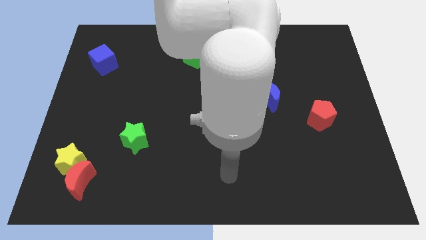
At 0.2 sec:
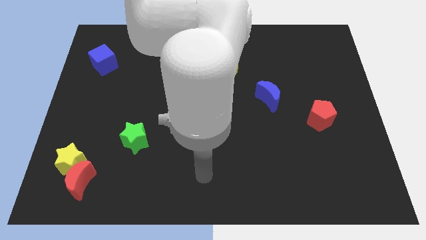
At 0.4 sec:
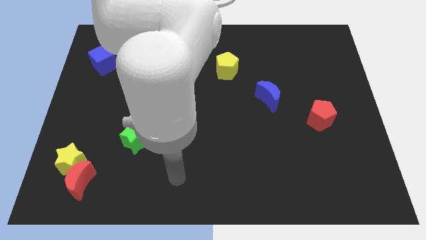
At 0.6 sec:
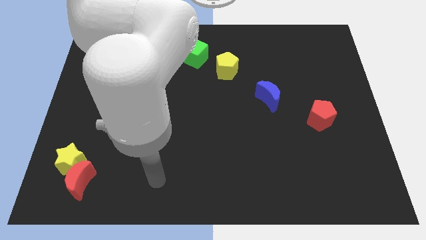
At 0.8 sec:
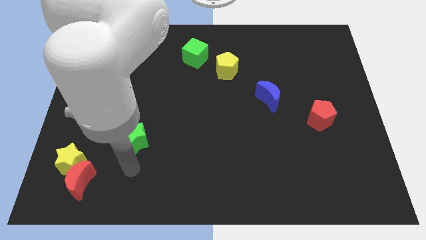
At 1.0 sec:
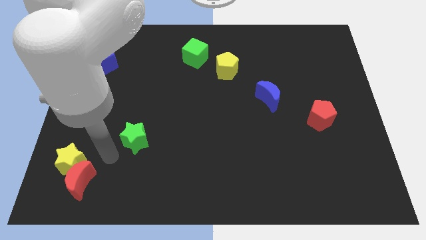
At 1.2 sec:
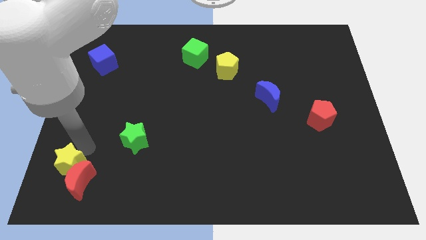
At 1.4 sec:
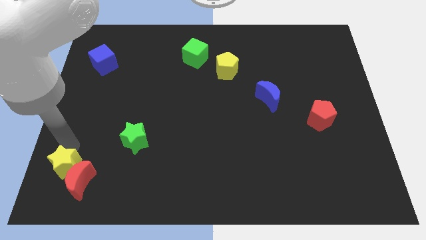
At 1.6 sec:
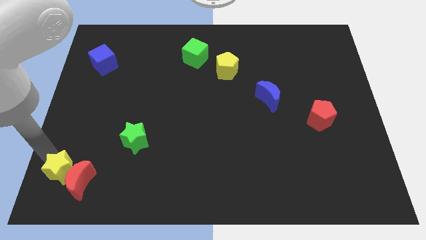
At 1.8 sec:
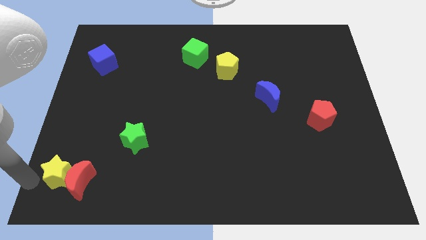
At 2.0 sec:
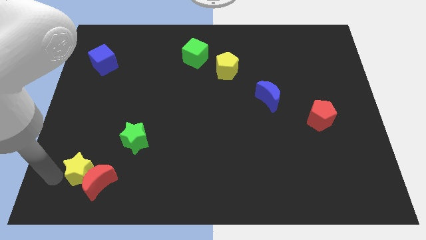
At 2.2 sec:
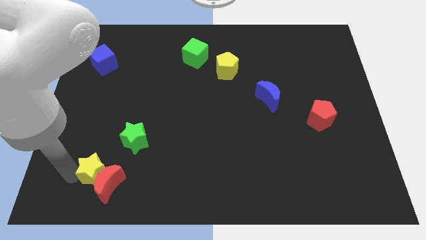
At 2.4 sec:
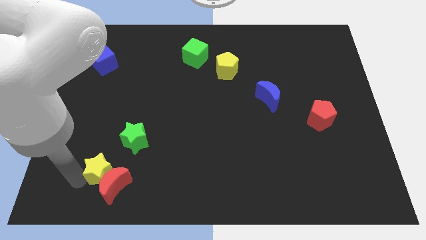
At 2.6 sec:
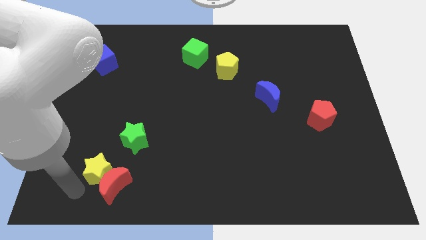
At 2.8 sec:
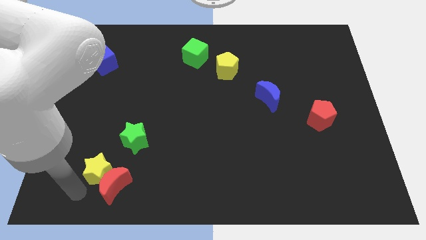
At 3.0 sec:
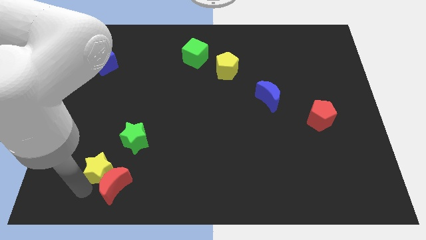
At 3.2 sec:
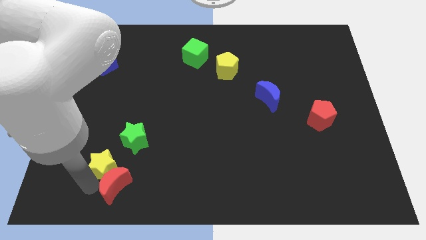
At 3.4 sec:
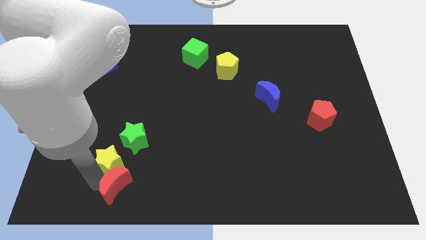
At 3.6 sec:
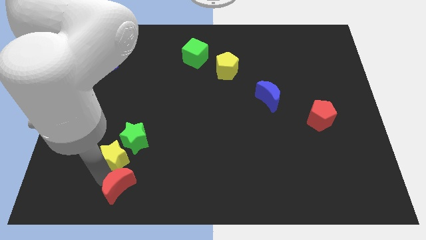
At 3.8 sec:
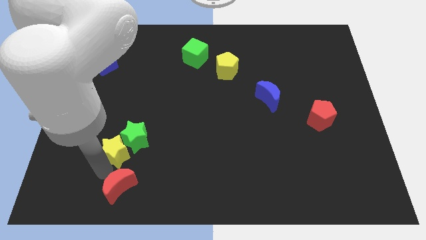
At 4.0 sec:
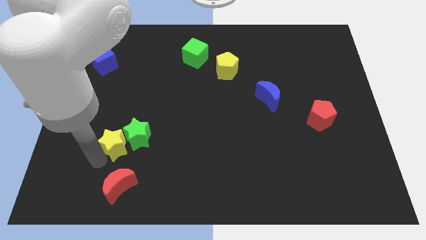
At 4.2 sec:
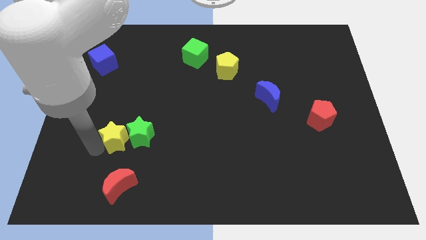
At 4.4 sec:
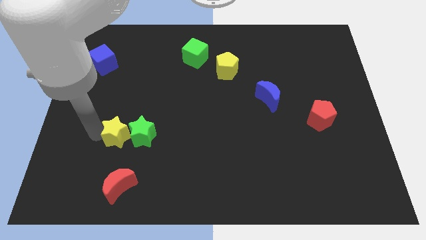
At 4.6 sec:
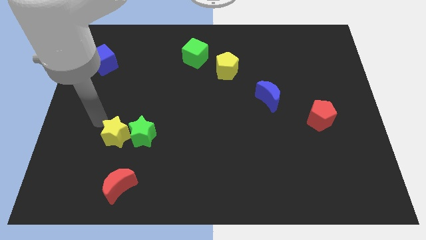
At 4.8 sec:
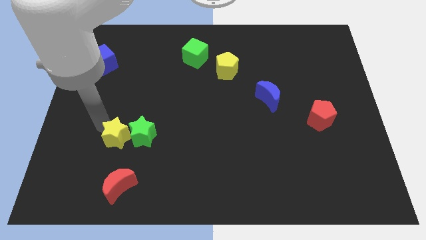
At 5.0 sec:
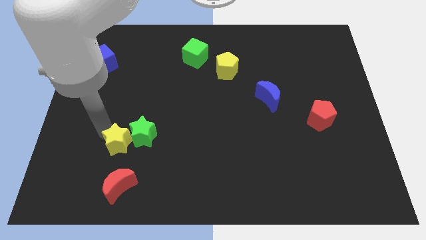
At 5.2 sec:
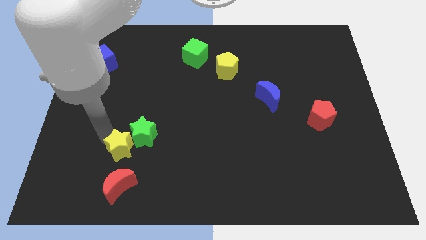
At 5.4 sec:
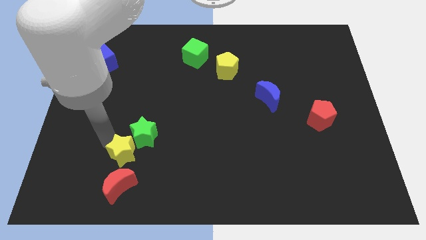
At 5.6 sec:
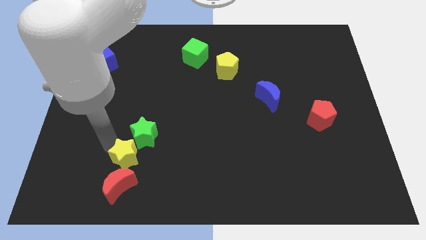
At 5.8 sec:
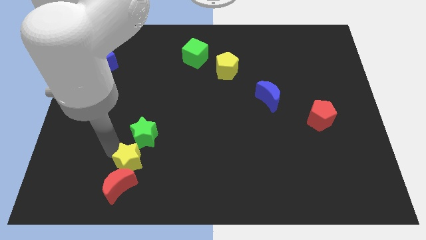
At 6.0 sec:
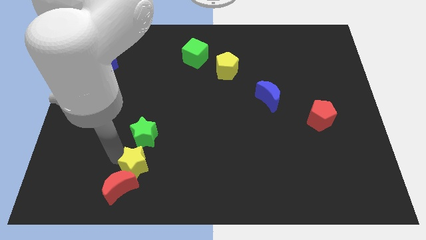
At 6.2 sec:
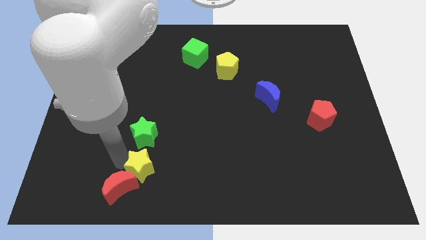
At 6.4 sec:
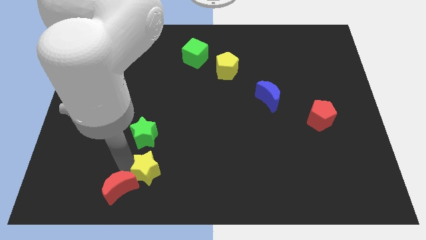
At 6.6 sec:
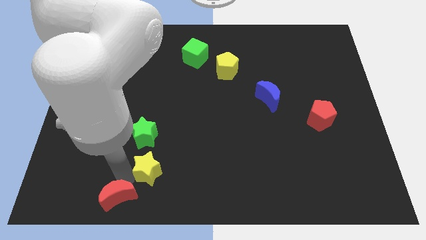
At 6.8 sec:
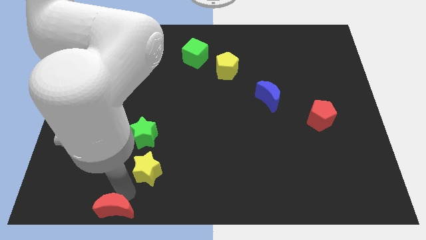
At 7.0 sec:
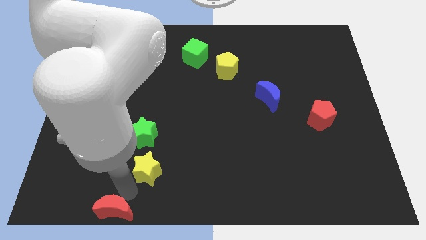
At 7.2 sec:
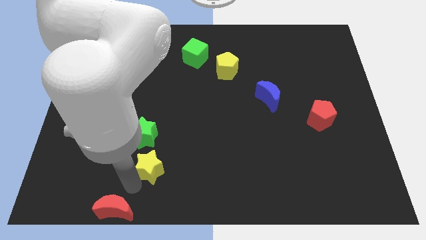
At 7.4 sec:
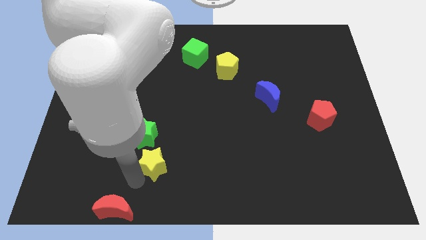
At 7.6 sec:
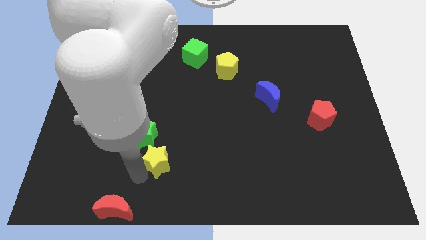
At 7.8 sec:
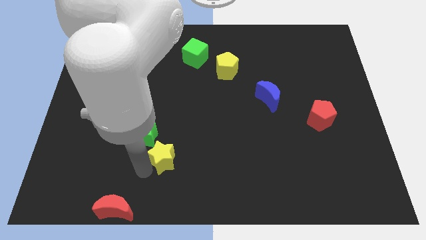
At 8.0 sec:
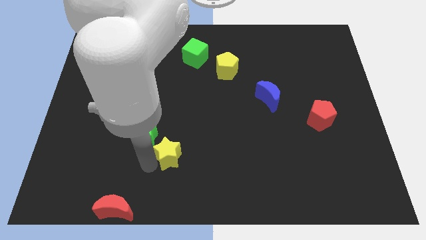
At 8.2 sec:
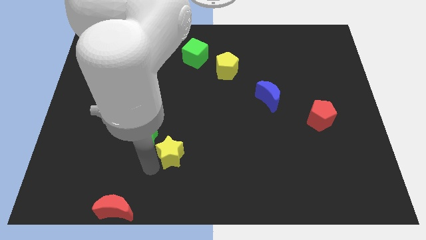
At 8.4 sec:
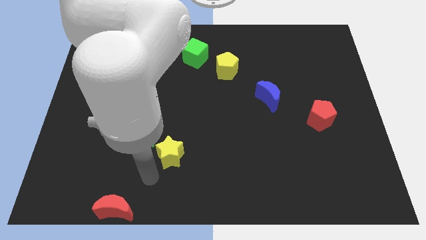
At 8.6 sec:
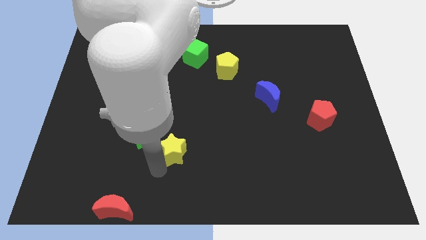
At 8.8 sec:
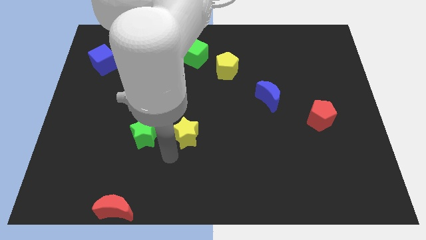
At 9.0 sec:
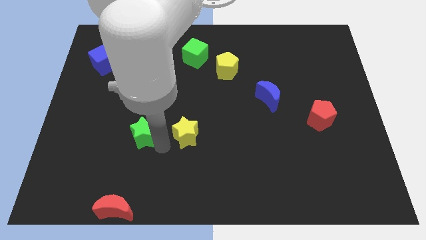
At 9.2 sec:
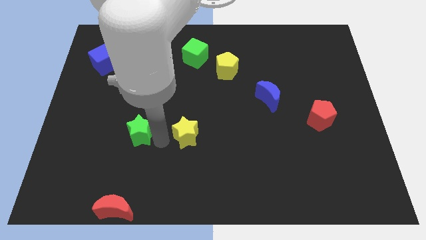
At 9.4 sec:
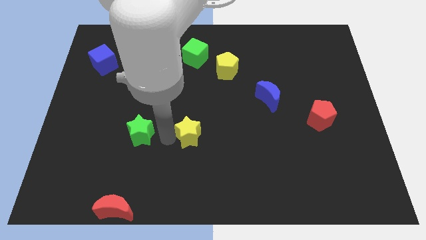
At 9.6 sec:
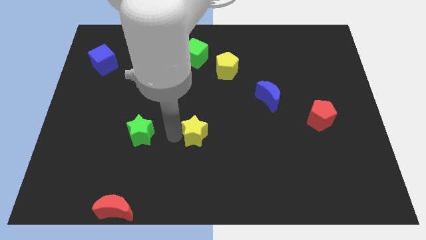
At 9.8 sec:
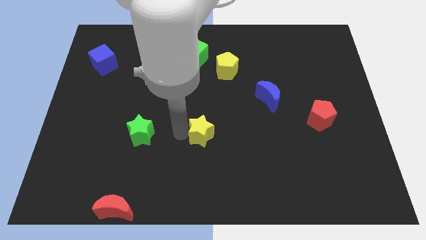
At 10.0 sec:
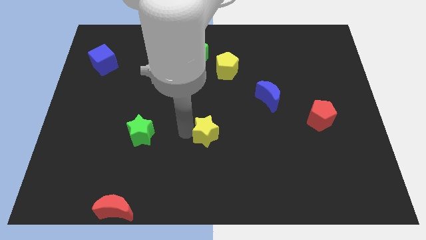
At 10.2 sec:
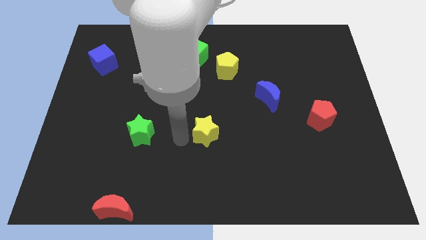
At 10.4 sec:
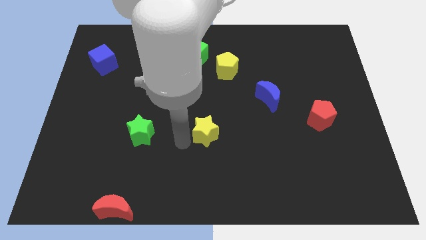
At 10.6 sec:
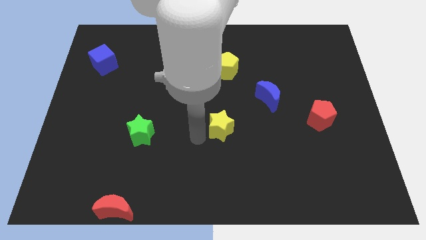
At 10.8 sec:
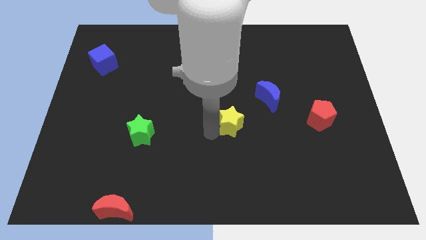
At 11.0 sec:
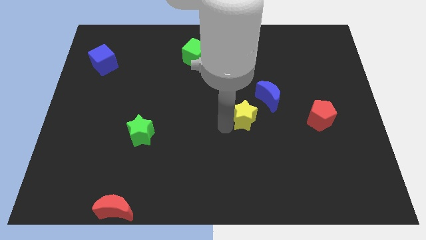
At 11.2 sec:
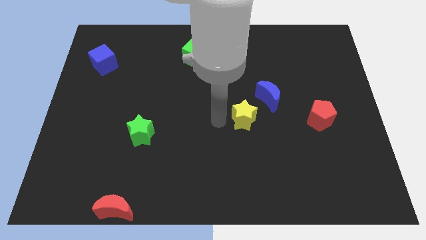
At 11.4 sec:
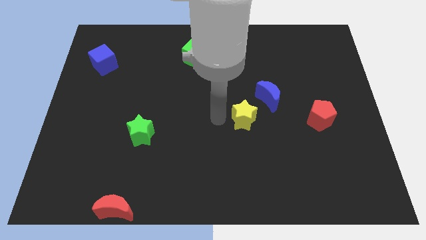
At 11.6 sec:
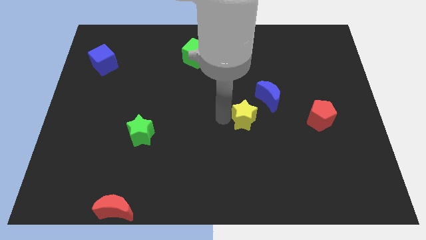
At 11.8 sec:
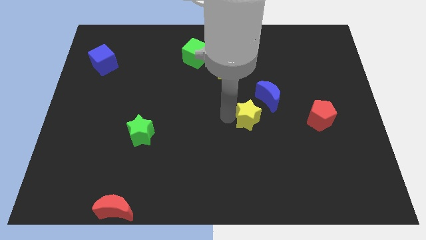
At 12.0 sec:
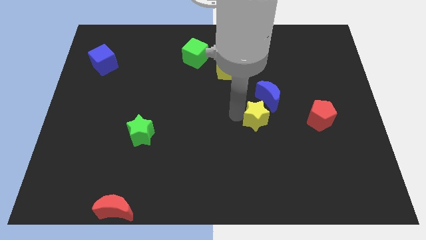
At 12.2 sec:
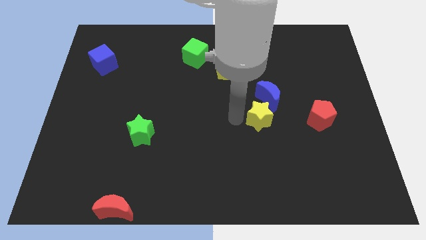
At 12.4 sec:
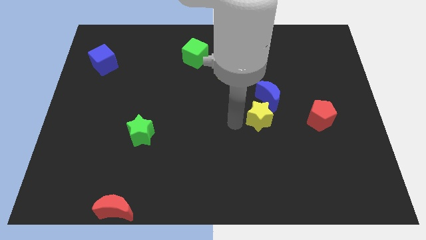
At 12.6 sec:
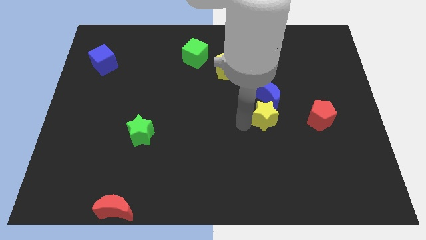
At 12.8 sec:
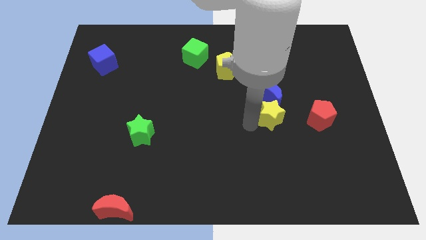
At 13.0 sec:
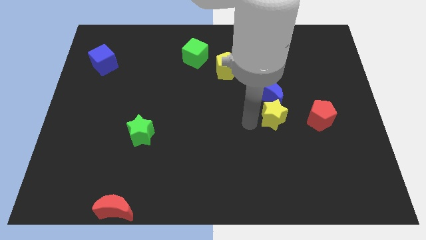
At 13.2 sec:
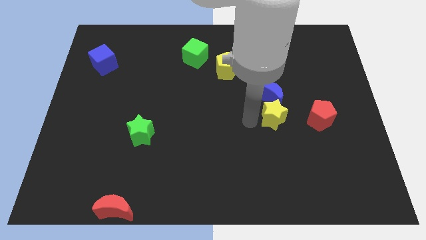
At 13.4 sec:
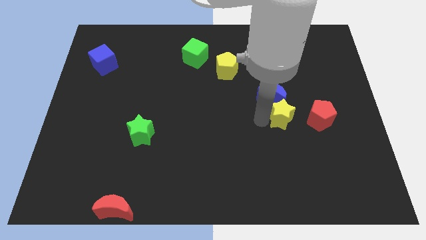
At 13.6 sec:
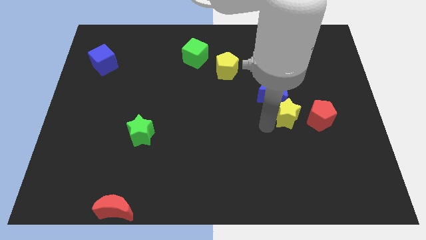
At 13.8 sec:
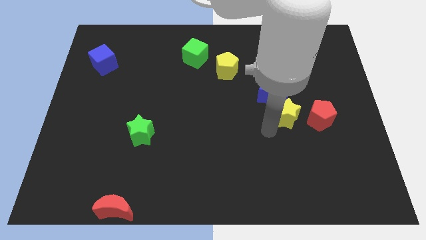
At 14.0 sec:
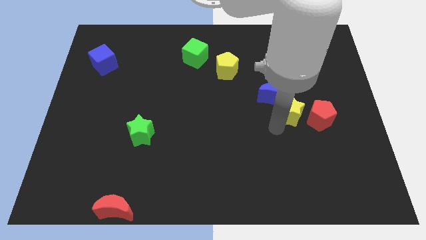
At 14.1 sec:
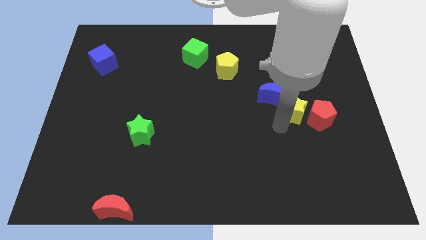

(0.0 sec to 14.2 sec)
slide the yellow star just right of the blue moon

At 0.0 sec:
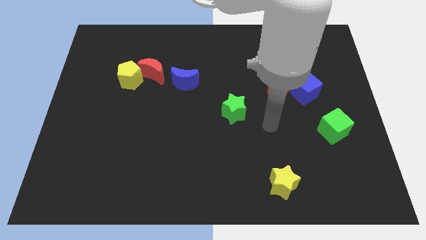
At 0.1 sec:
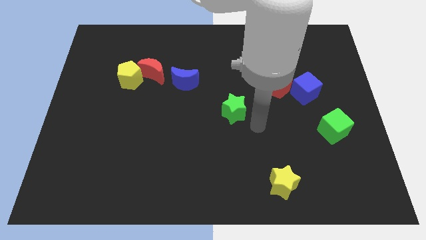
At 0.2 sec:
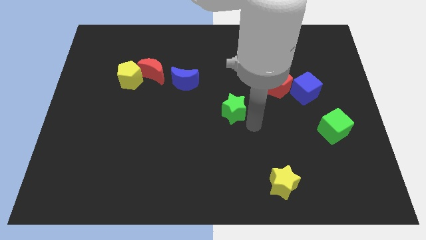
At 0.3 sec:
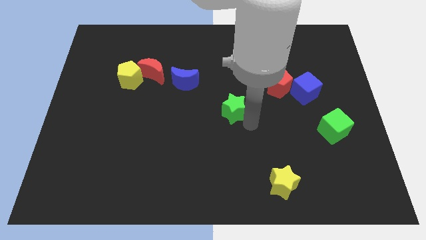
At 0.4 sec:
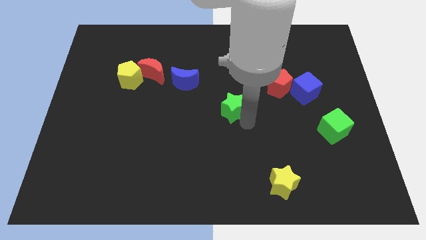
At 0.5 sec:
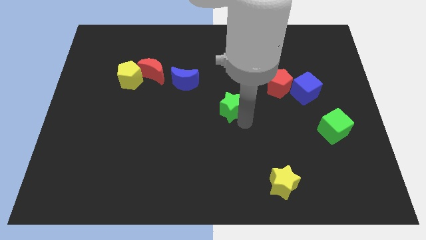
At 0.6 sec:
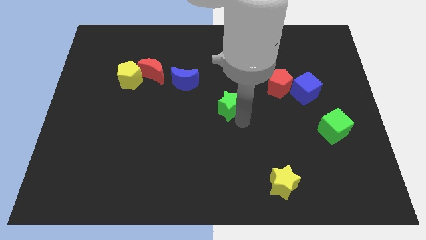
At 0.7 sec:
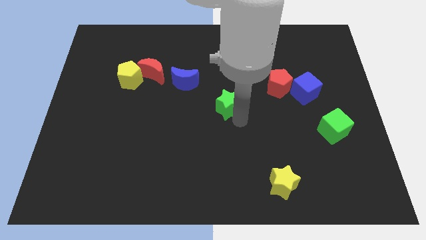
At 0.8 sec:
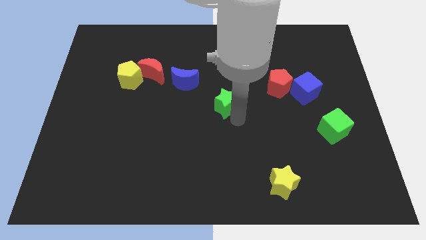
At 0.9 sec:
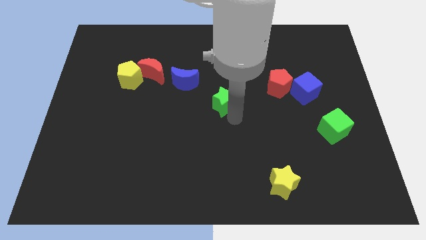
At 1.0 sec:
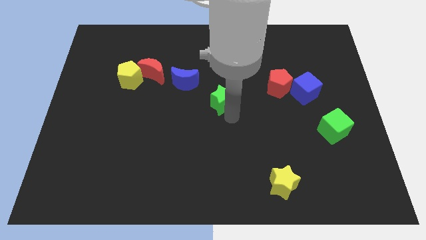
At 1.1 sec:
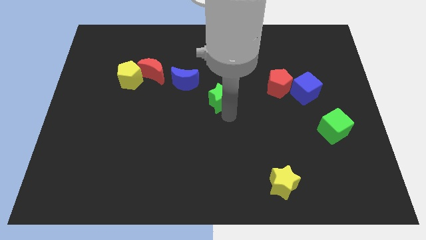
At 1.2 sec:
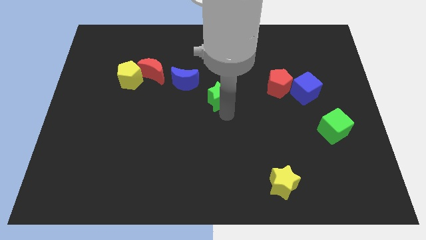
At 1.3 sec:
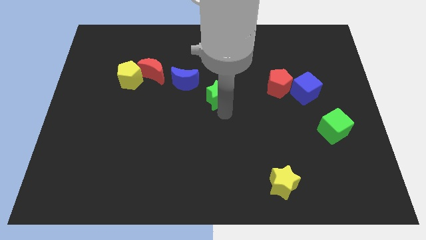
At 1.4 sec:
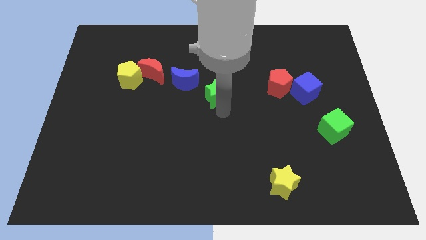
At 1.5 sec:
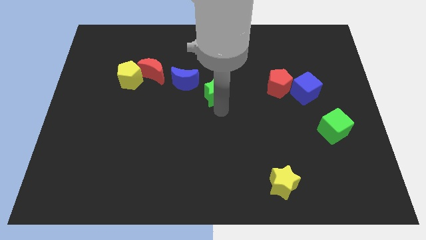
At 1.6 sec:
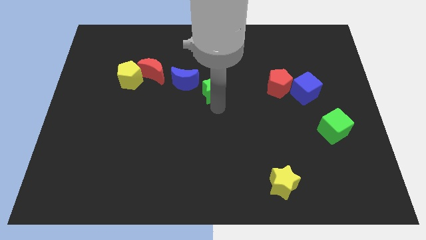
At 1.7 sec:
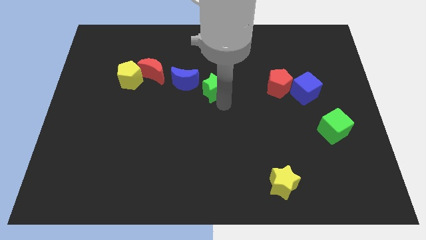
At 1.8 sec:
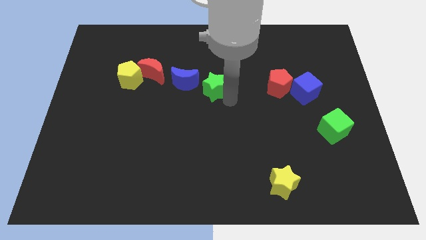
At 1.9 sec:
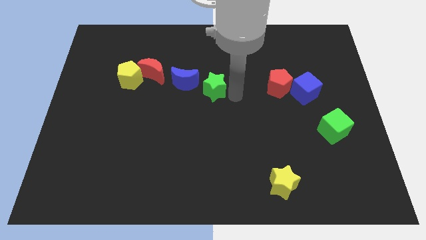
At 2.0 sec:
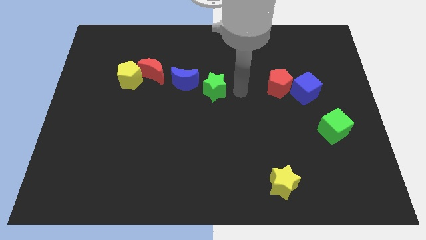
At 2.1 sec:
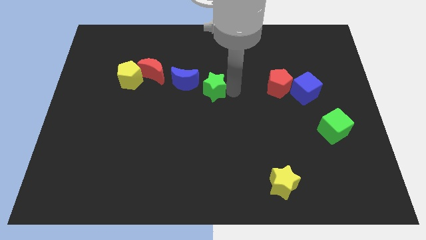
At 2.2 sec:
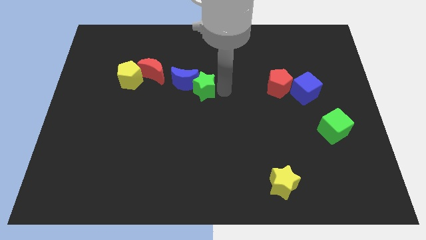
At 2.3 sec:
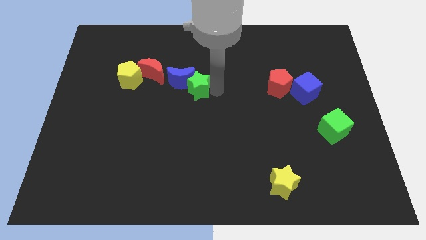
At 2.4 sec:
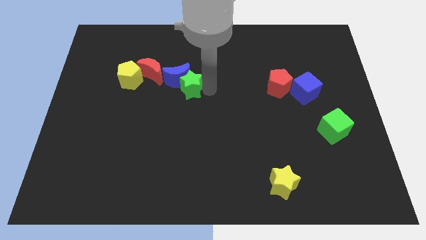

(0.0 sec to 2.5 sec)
put the green star diagonally down and to the right of the red moon
